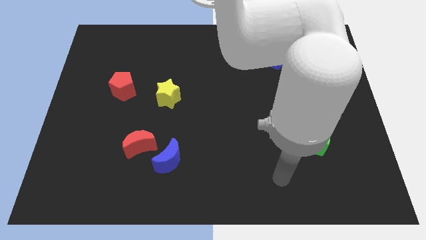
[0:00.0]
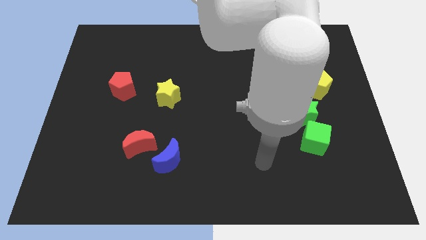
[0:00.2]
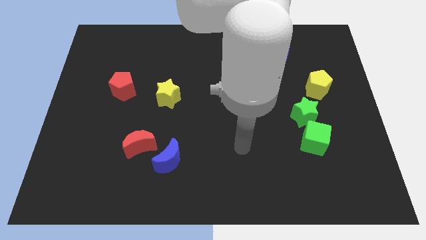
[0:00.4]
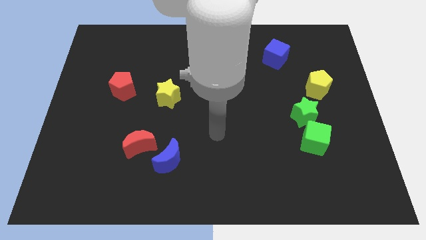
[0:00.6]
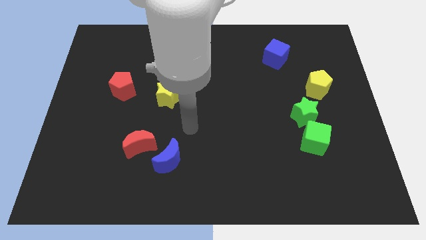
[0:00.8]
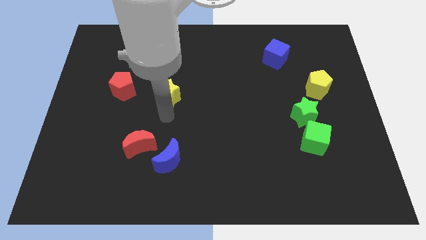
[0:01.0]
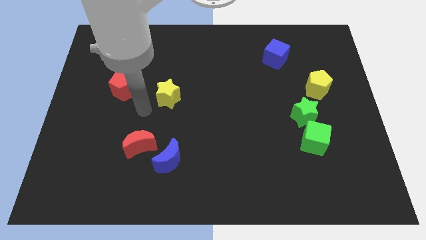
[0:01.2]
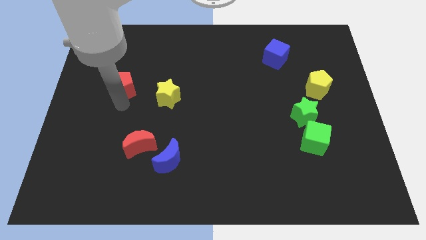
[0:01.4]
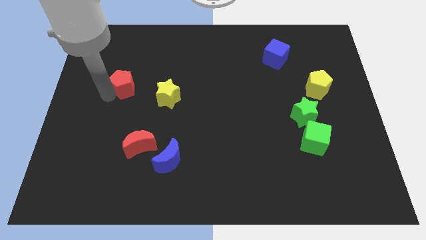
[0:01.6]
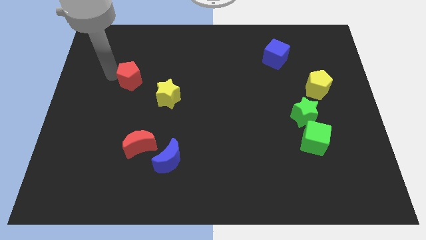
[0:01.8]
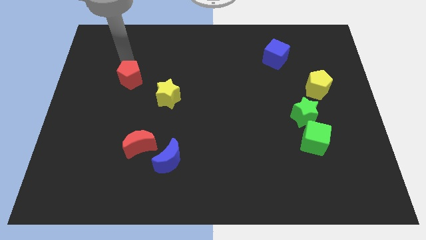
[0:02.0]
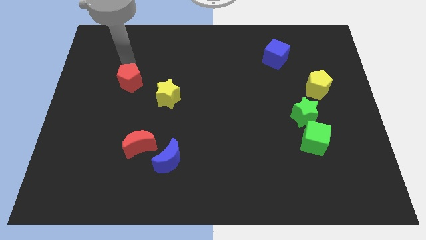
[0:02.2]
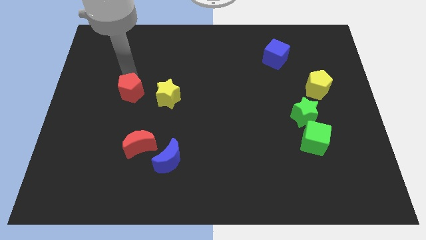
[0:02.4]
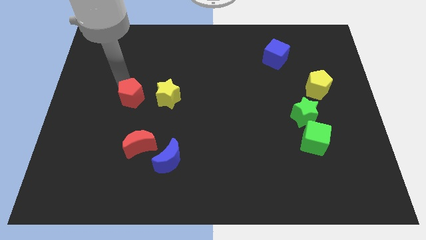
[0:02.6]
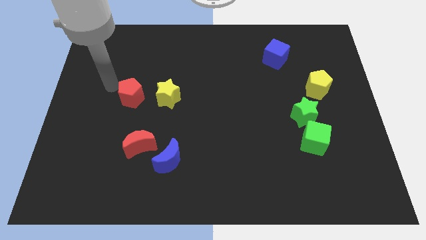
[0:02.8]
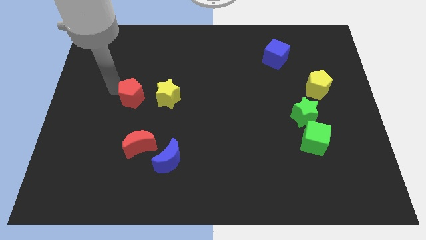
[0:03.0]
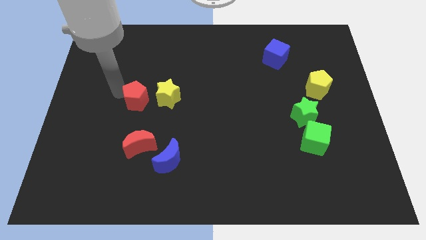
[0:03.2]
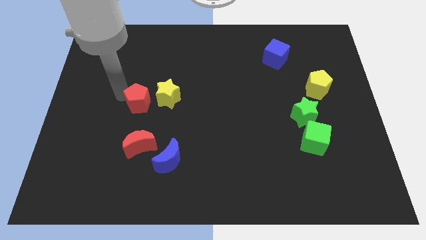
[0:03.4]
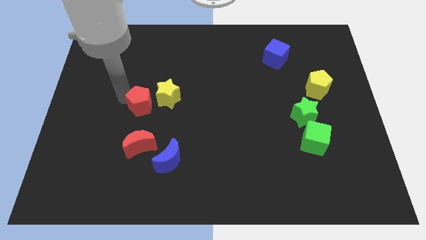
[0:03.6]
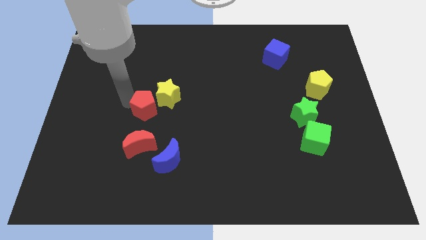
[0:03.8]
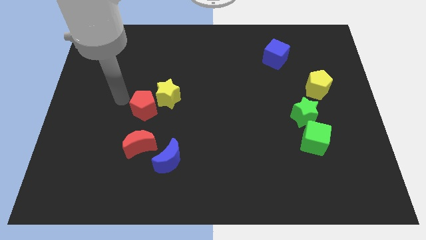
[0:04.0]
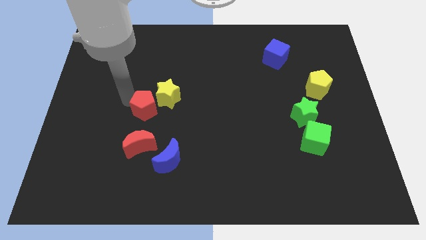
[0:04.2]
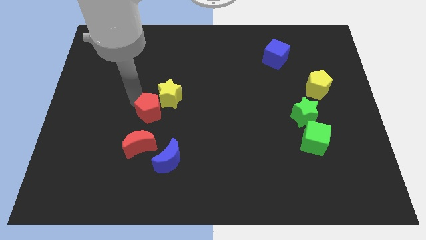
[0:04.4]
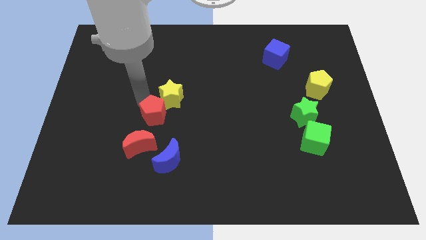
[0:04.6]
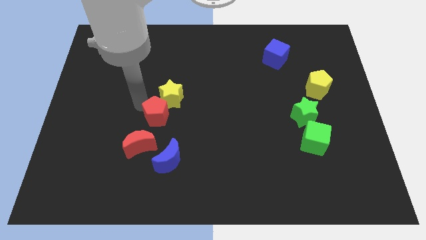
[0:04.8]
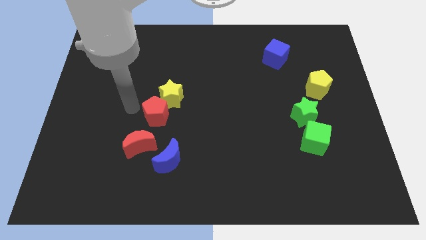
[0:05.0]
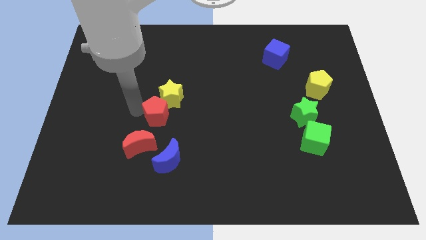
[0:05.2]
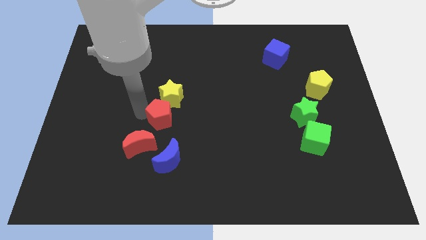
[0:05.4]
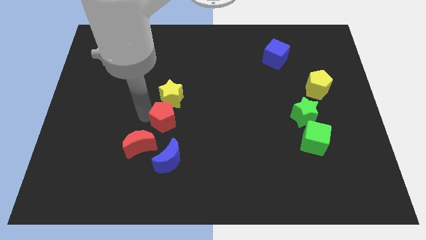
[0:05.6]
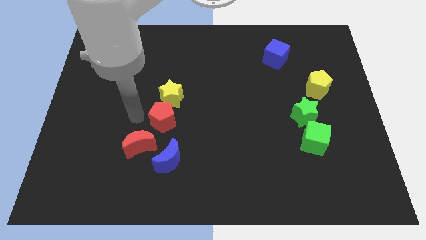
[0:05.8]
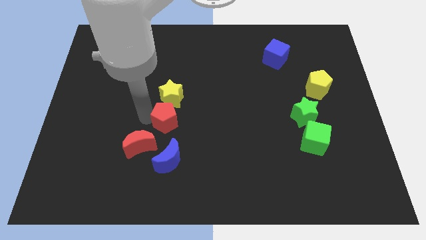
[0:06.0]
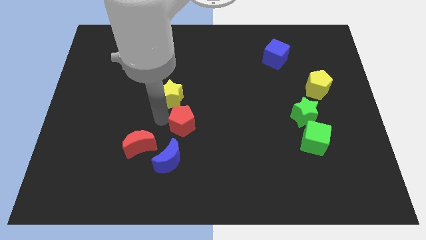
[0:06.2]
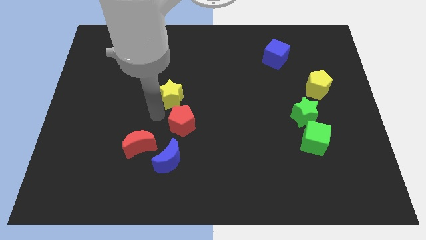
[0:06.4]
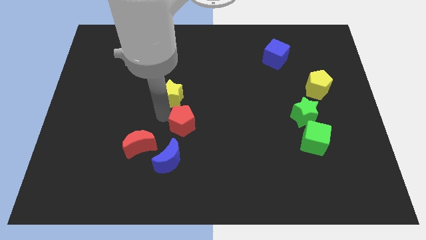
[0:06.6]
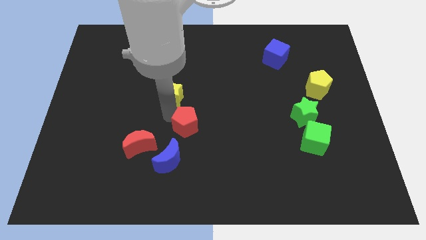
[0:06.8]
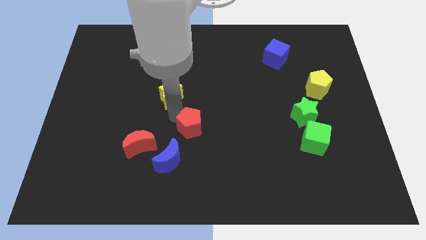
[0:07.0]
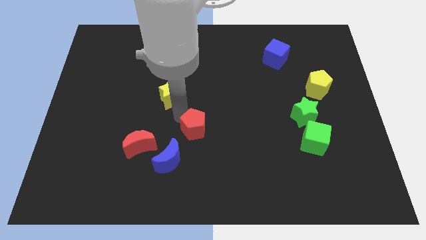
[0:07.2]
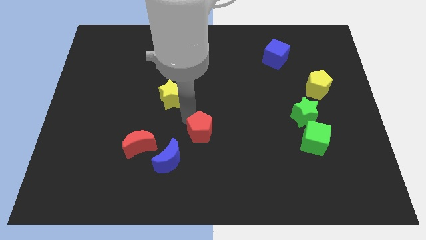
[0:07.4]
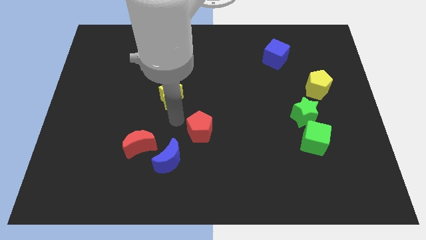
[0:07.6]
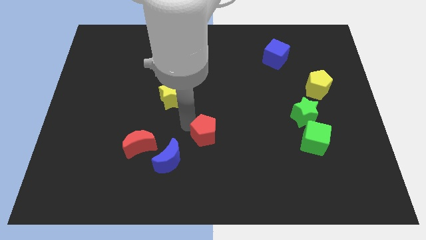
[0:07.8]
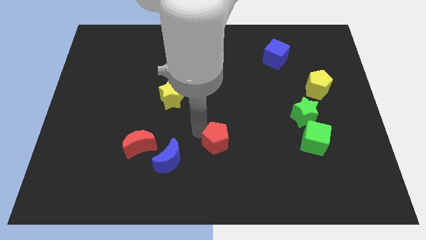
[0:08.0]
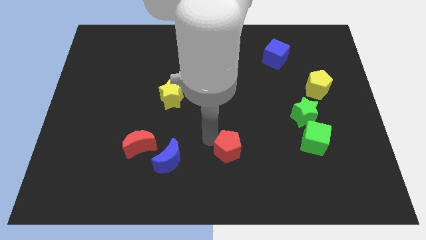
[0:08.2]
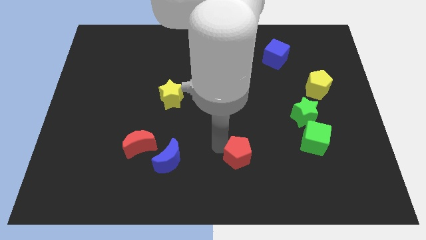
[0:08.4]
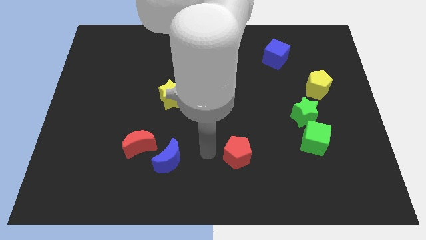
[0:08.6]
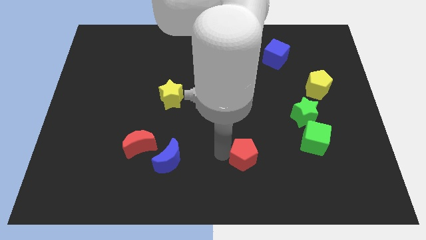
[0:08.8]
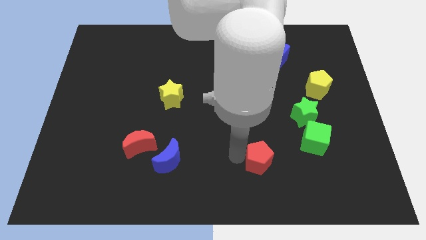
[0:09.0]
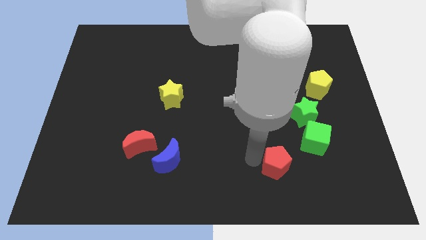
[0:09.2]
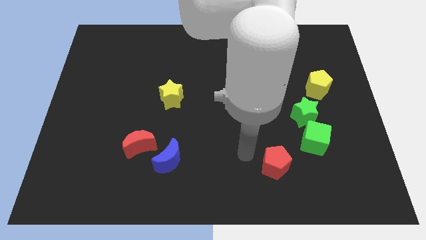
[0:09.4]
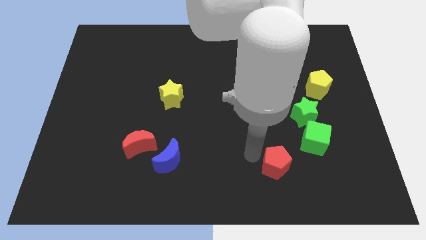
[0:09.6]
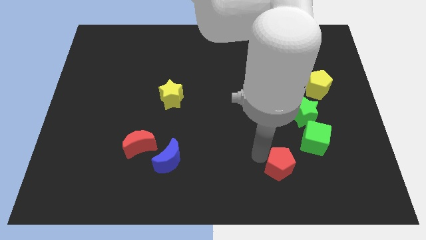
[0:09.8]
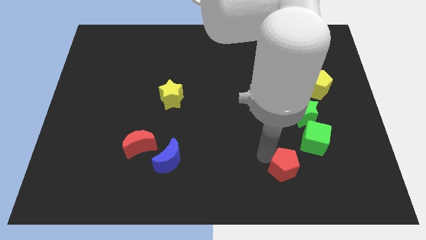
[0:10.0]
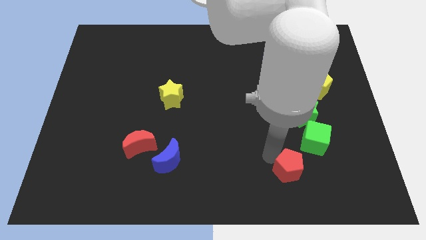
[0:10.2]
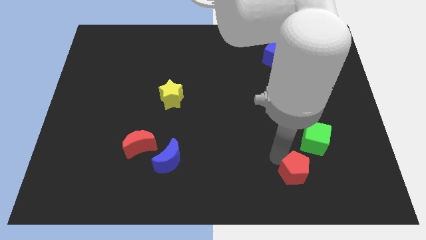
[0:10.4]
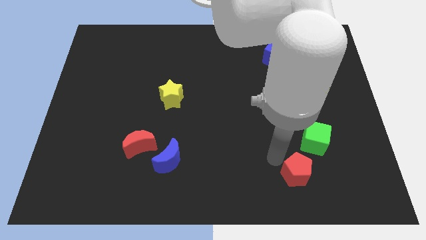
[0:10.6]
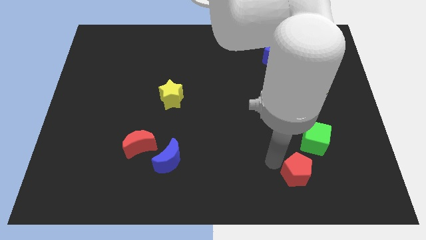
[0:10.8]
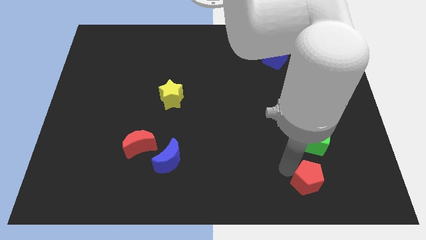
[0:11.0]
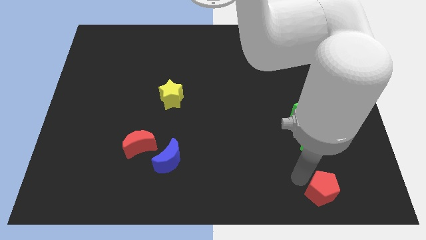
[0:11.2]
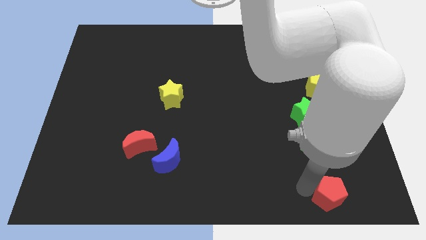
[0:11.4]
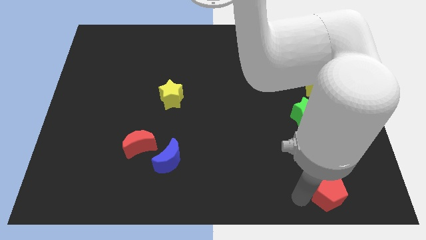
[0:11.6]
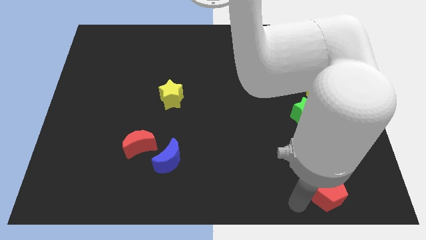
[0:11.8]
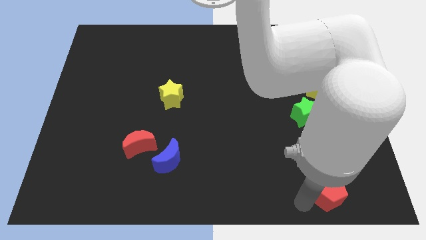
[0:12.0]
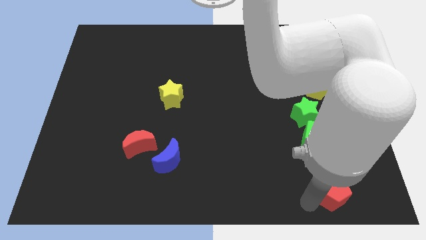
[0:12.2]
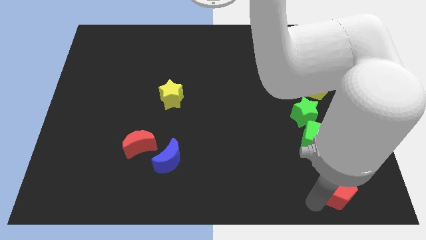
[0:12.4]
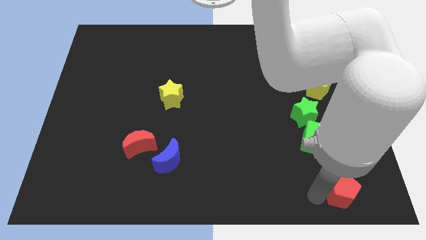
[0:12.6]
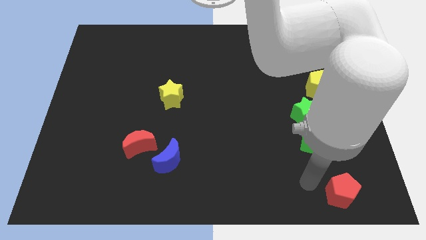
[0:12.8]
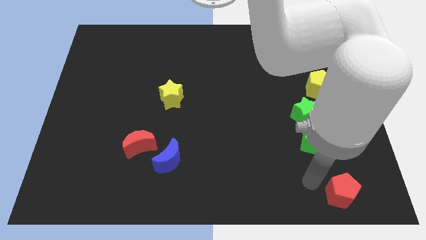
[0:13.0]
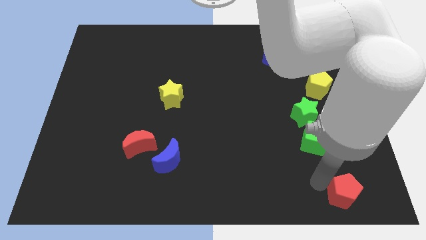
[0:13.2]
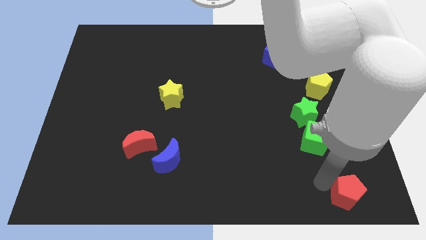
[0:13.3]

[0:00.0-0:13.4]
push the red pentagon to the bottom right corner

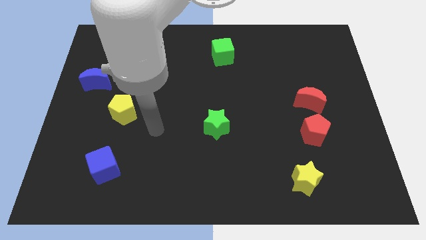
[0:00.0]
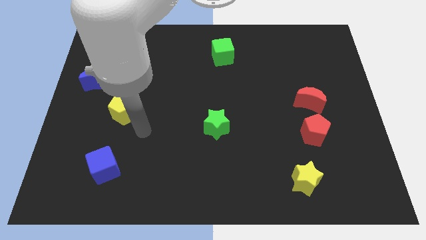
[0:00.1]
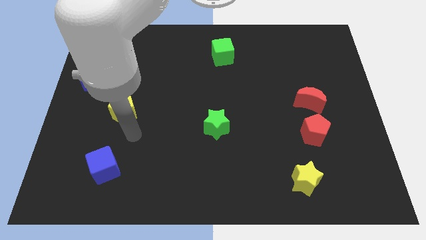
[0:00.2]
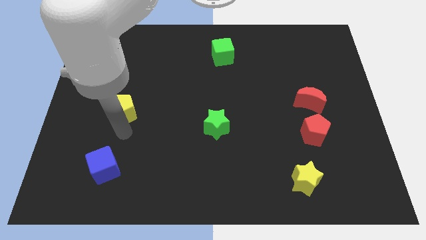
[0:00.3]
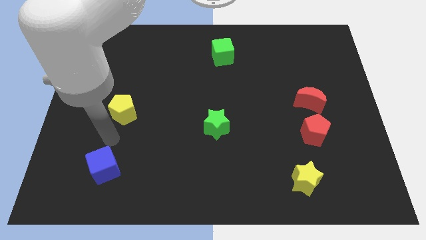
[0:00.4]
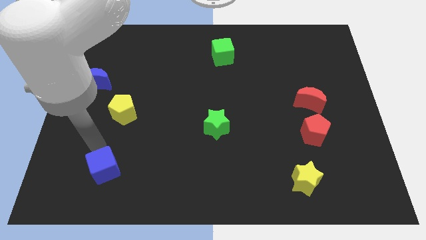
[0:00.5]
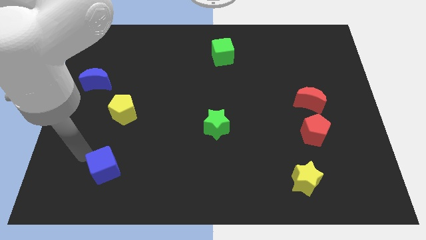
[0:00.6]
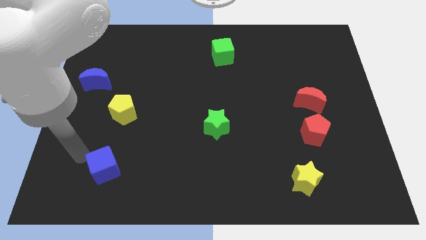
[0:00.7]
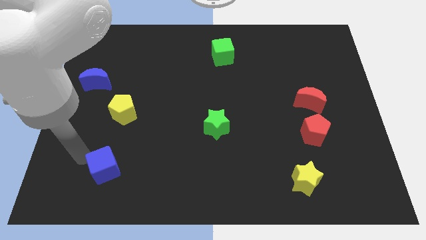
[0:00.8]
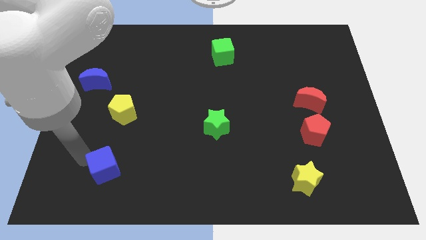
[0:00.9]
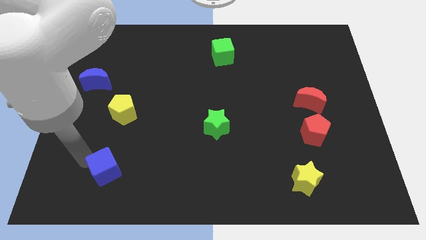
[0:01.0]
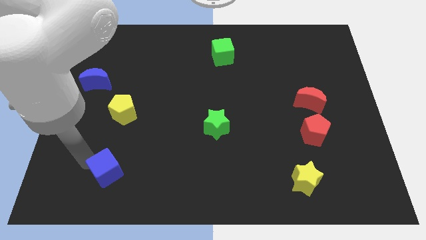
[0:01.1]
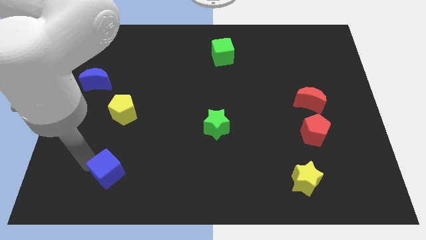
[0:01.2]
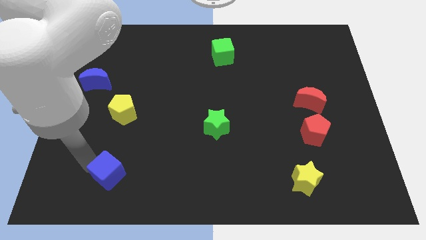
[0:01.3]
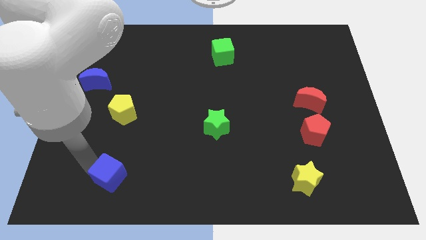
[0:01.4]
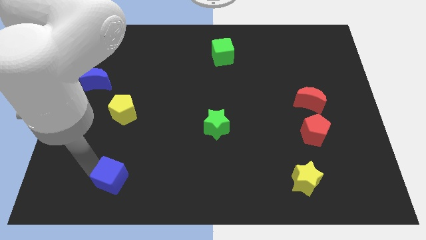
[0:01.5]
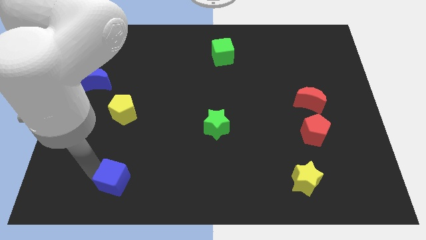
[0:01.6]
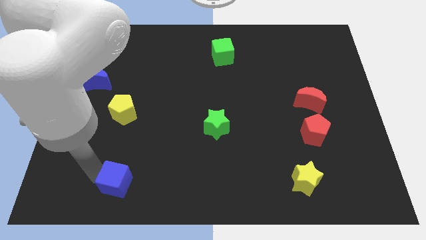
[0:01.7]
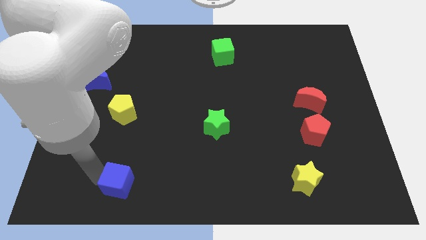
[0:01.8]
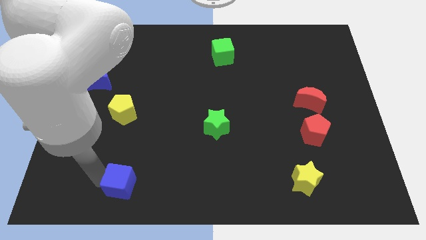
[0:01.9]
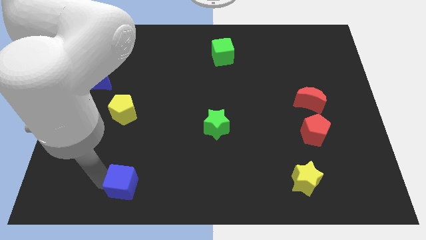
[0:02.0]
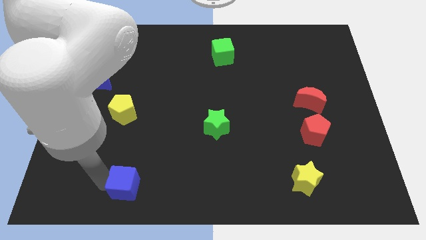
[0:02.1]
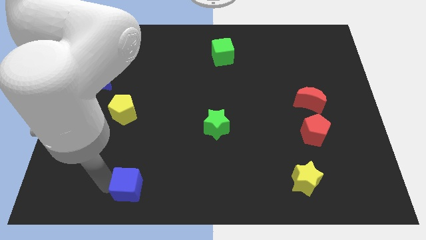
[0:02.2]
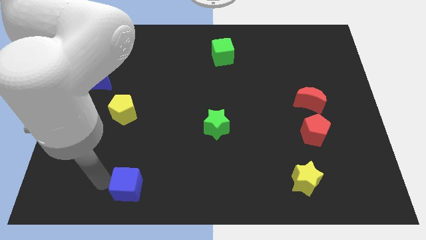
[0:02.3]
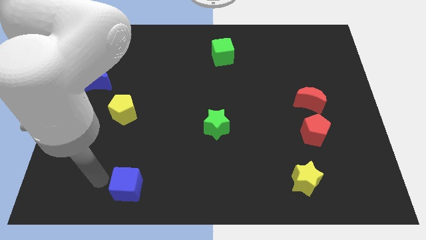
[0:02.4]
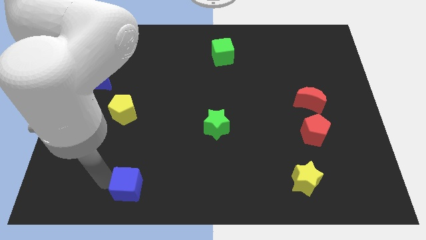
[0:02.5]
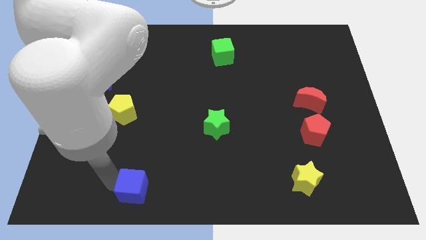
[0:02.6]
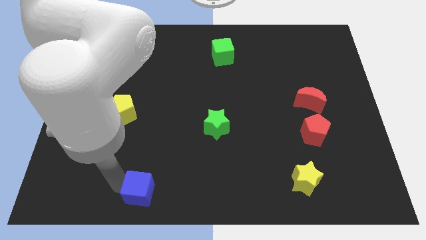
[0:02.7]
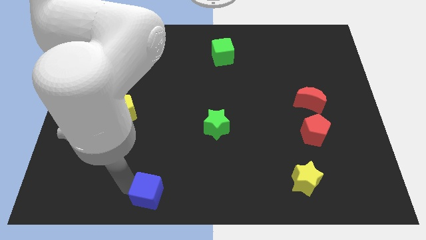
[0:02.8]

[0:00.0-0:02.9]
slide the blue cube to the bottom
